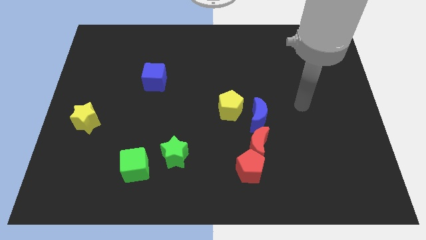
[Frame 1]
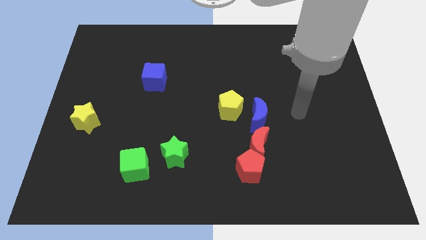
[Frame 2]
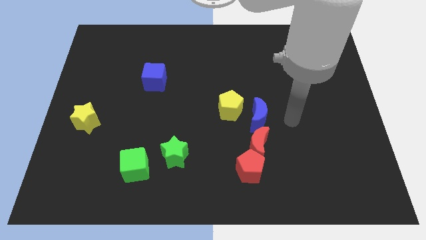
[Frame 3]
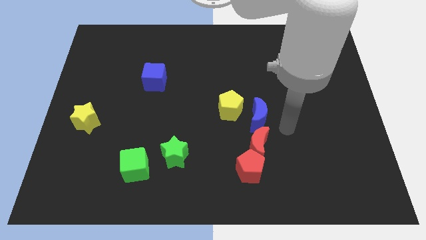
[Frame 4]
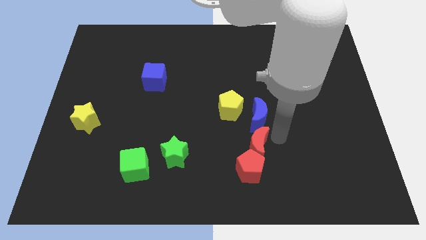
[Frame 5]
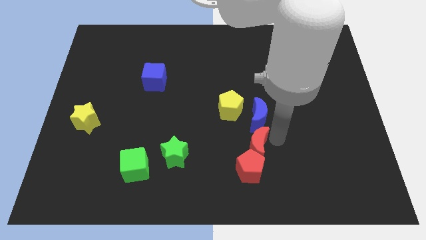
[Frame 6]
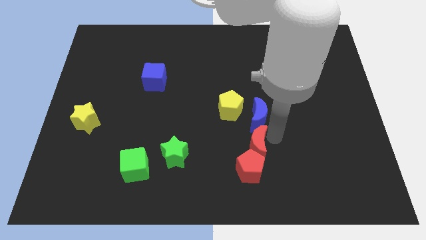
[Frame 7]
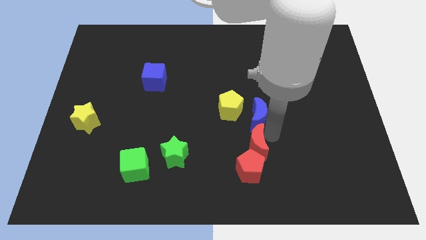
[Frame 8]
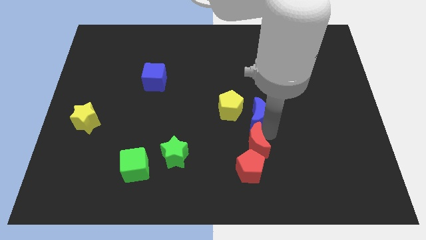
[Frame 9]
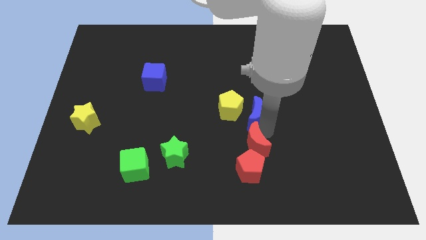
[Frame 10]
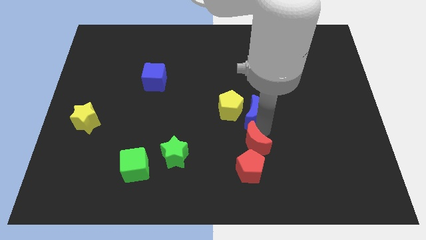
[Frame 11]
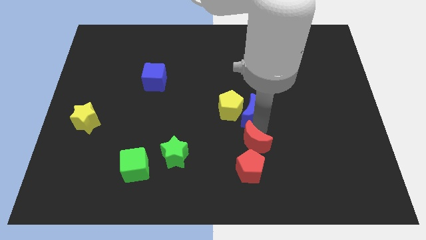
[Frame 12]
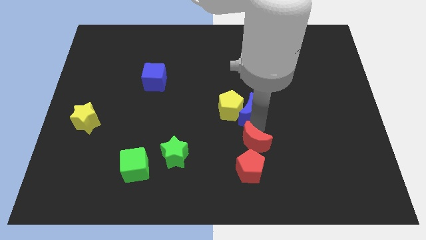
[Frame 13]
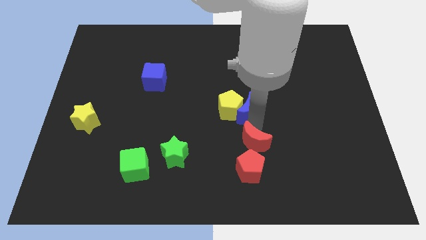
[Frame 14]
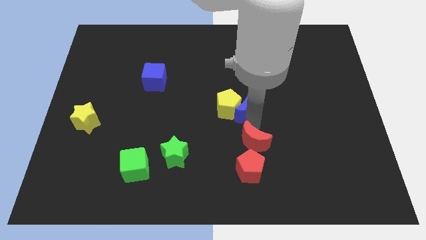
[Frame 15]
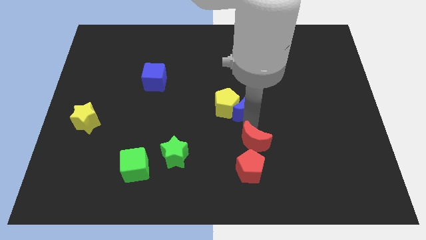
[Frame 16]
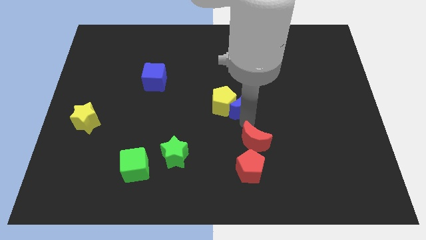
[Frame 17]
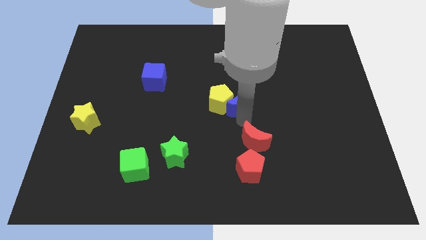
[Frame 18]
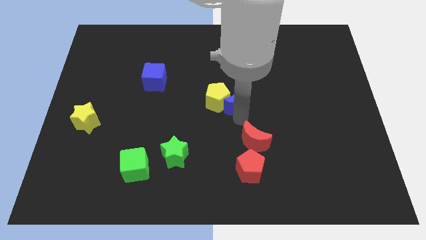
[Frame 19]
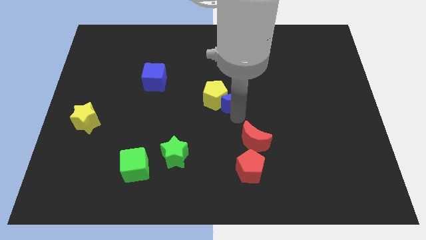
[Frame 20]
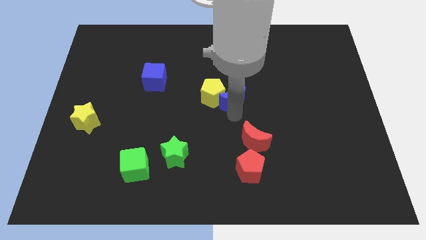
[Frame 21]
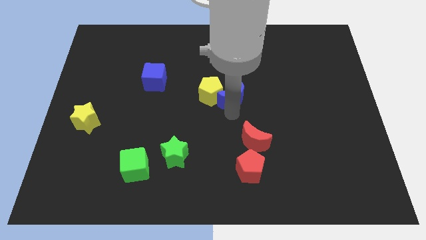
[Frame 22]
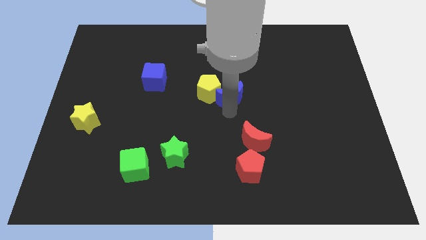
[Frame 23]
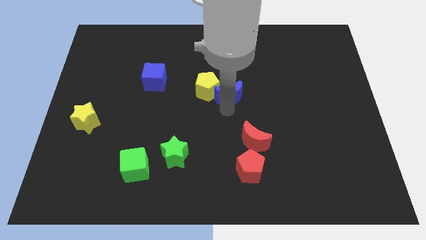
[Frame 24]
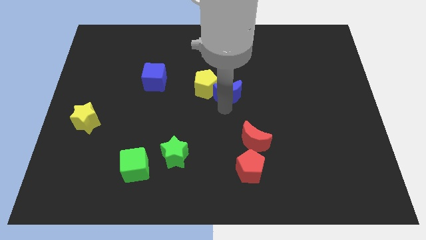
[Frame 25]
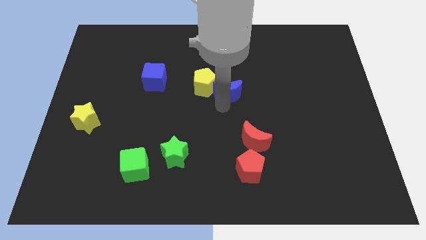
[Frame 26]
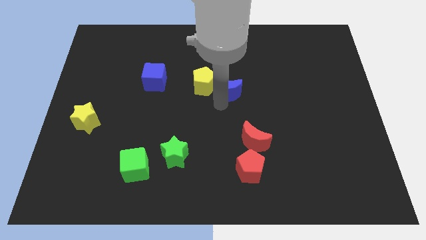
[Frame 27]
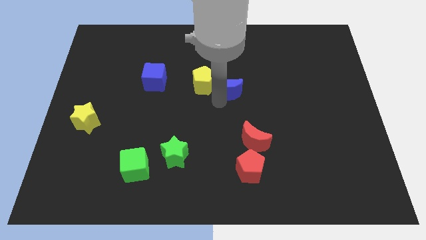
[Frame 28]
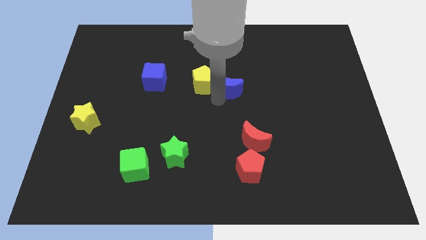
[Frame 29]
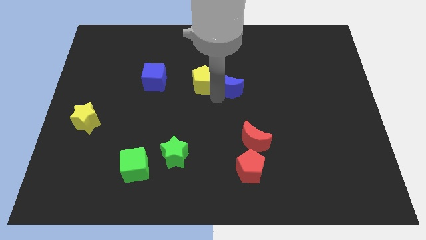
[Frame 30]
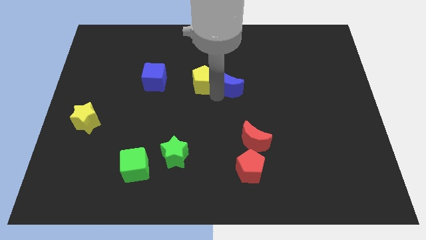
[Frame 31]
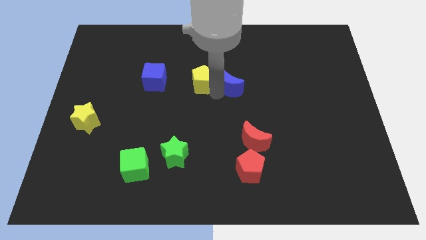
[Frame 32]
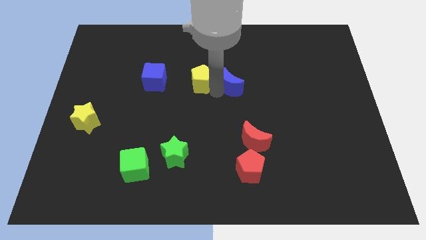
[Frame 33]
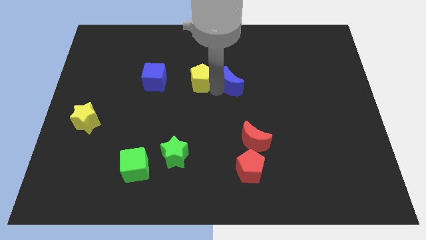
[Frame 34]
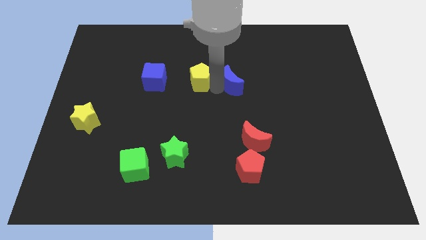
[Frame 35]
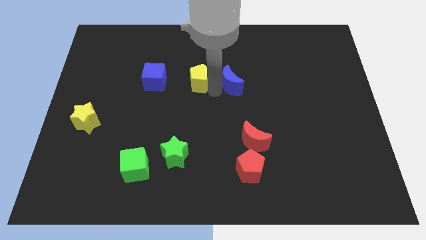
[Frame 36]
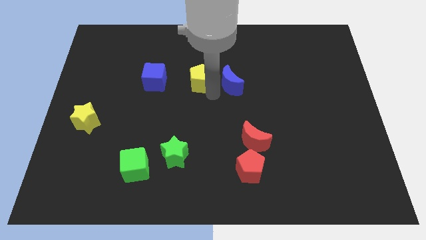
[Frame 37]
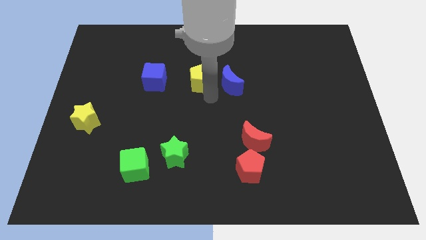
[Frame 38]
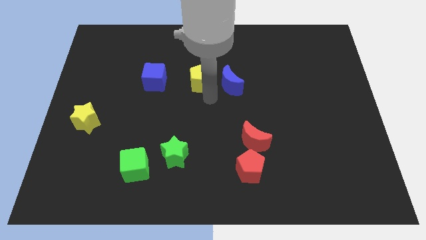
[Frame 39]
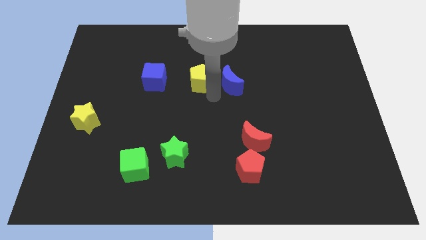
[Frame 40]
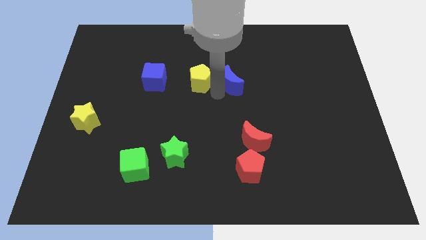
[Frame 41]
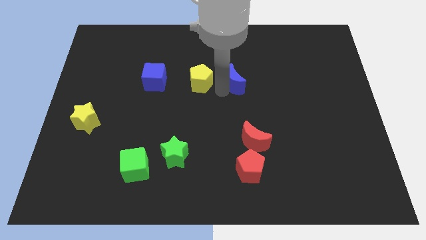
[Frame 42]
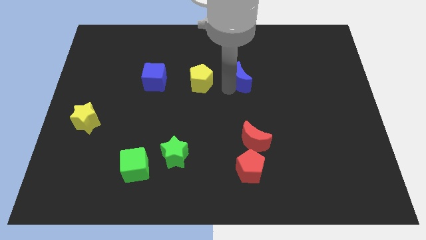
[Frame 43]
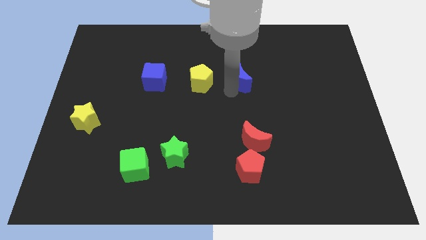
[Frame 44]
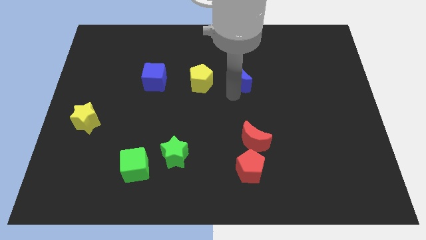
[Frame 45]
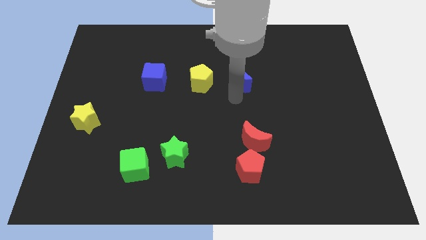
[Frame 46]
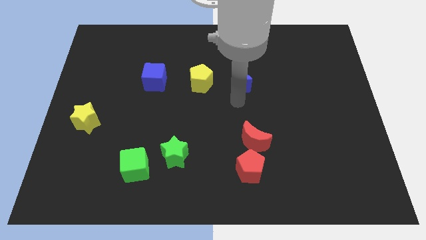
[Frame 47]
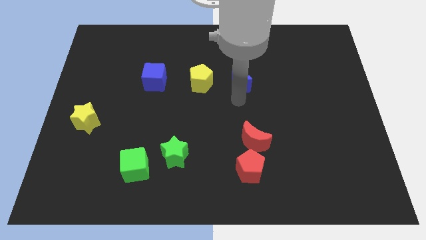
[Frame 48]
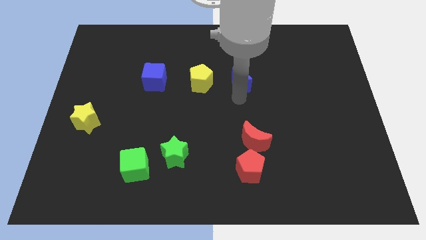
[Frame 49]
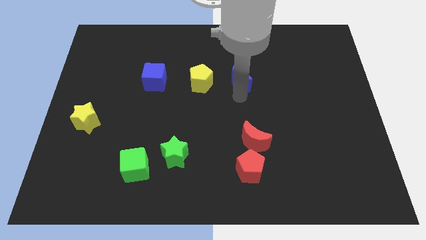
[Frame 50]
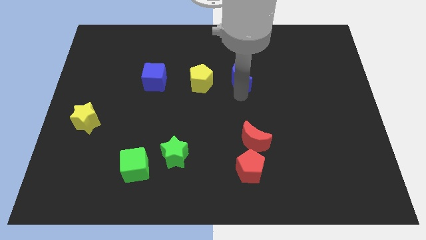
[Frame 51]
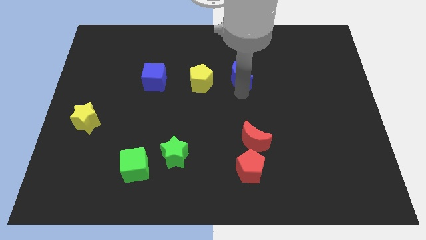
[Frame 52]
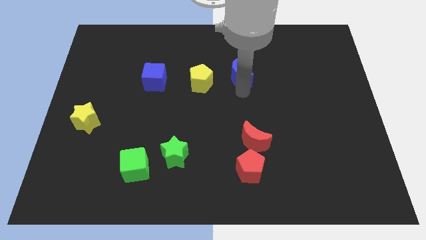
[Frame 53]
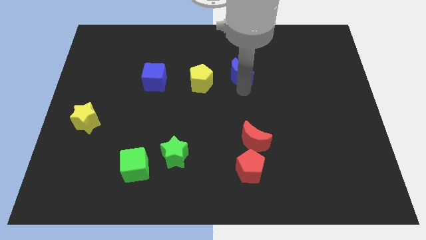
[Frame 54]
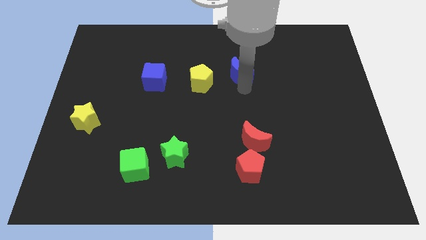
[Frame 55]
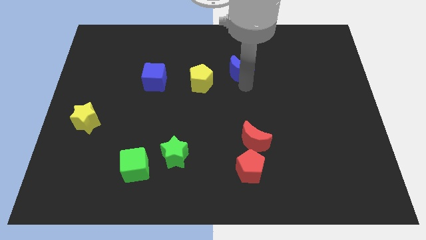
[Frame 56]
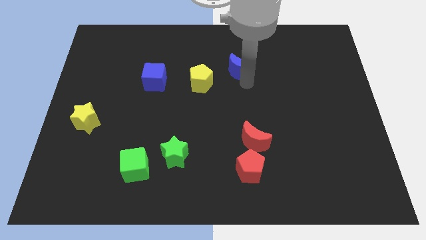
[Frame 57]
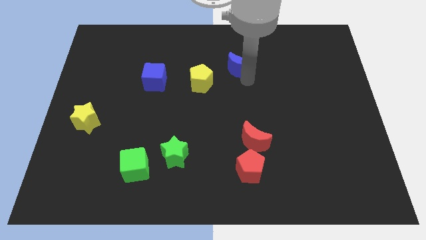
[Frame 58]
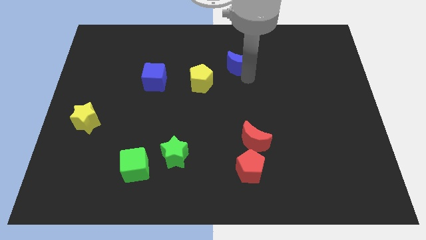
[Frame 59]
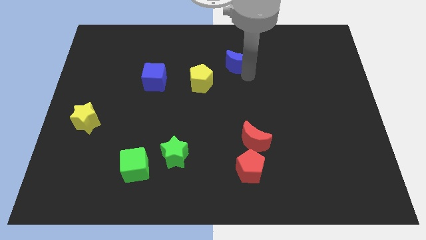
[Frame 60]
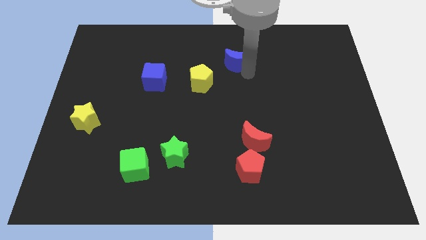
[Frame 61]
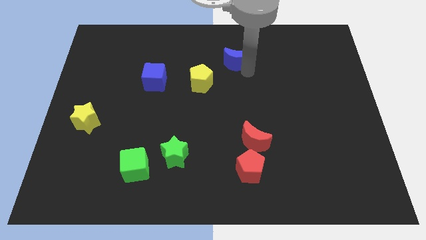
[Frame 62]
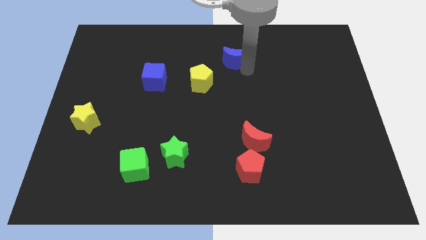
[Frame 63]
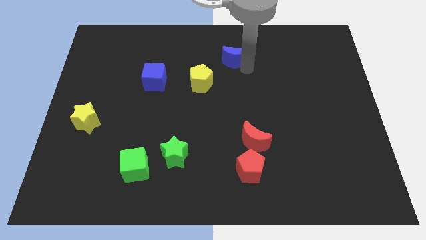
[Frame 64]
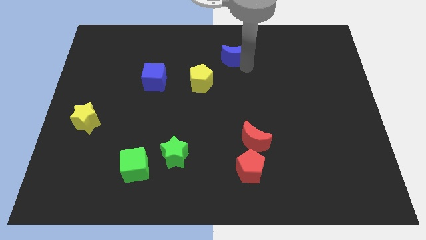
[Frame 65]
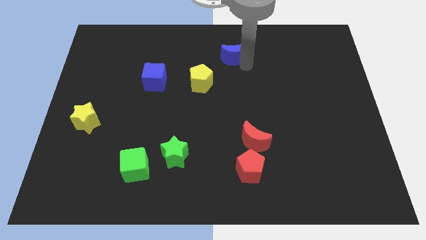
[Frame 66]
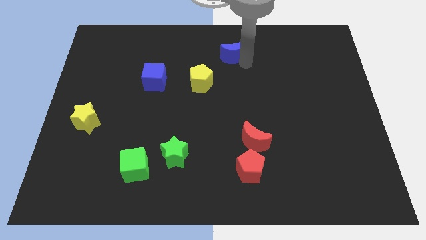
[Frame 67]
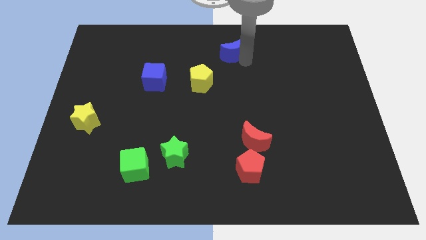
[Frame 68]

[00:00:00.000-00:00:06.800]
push the blue moon to the towards your base
